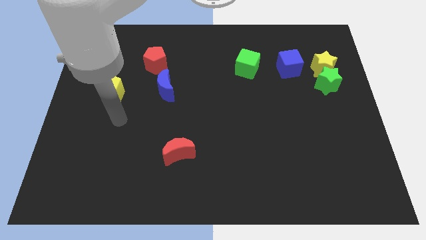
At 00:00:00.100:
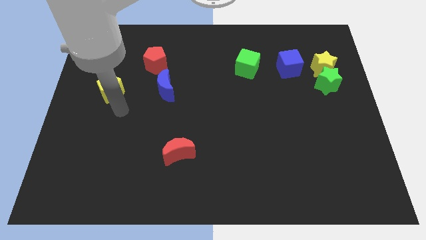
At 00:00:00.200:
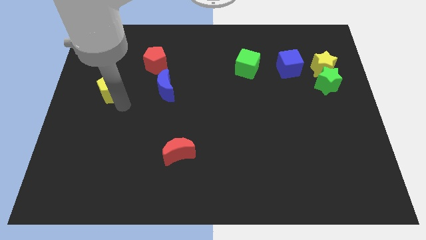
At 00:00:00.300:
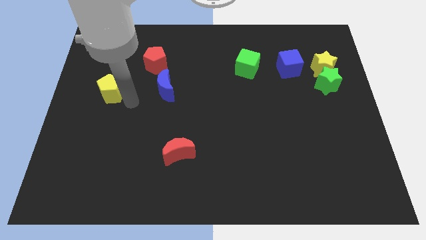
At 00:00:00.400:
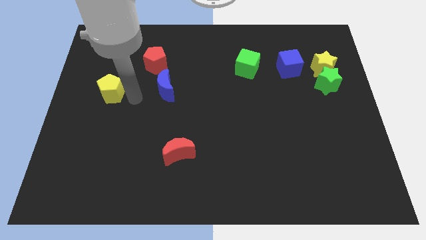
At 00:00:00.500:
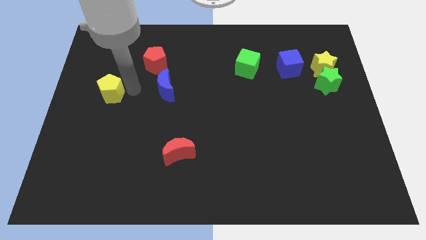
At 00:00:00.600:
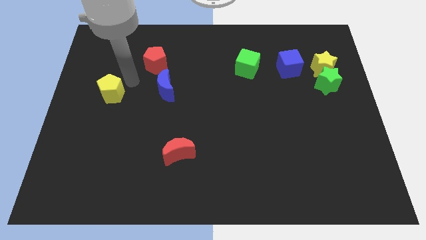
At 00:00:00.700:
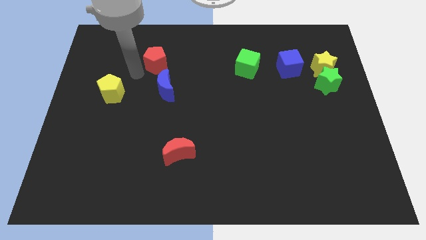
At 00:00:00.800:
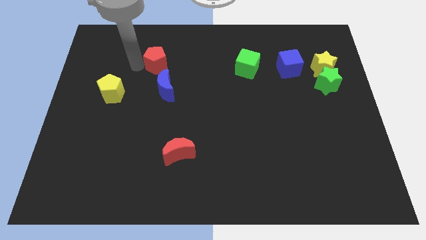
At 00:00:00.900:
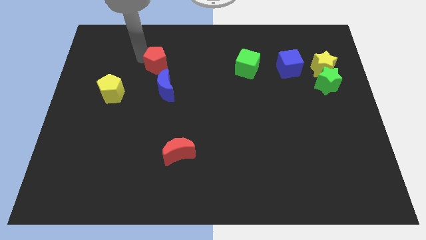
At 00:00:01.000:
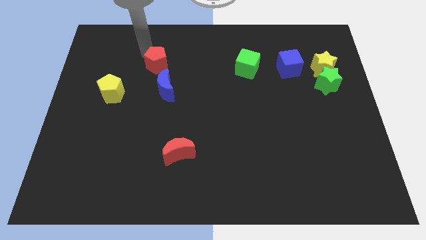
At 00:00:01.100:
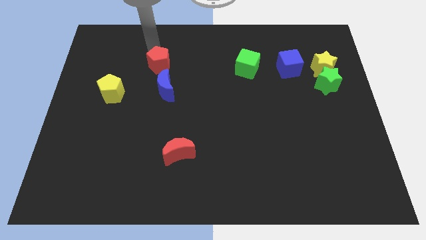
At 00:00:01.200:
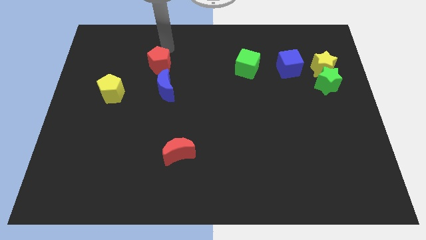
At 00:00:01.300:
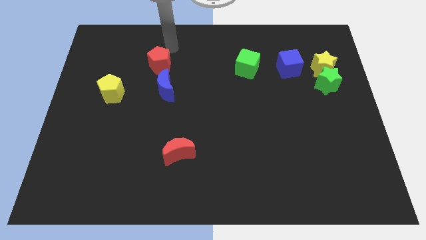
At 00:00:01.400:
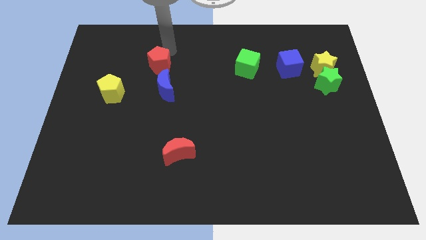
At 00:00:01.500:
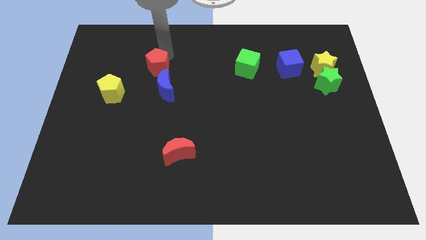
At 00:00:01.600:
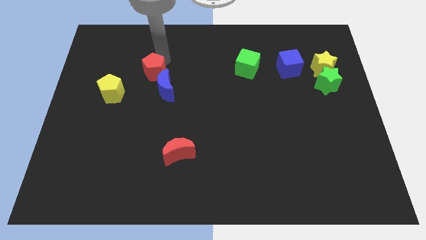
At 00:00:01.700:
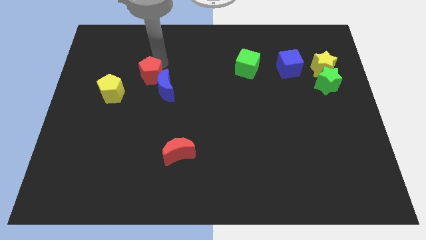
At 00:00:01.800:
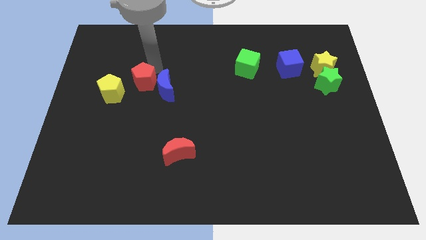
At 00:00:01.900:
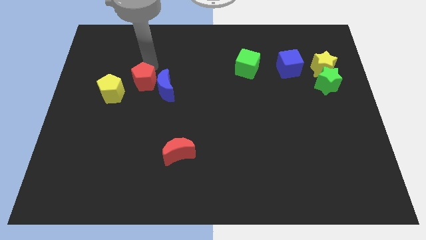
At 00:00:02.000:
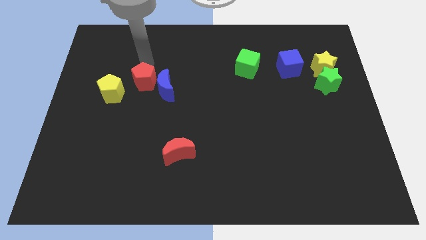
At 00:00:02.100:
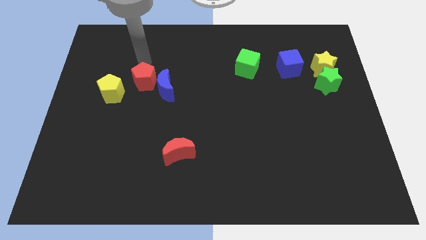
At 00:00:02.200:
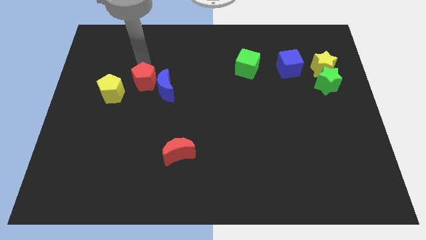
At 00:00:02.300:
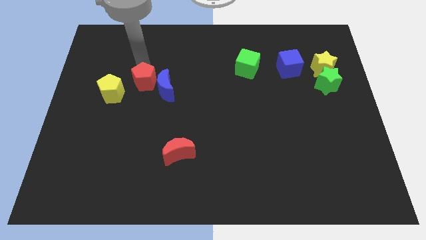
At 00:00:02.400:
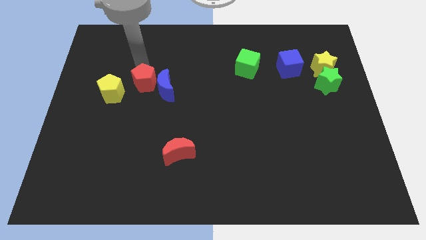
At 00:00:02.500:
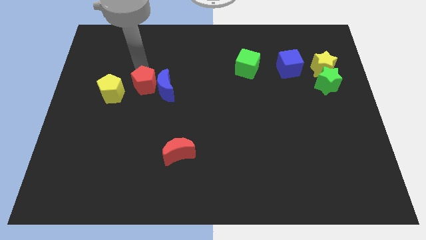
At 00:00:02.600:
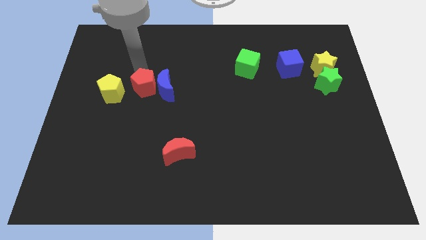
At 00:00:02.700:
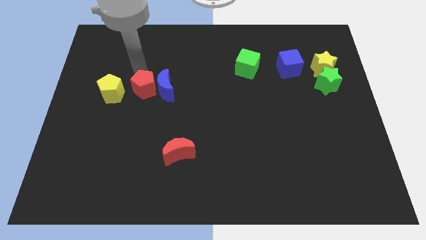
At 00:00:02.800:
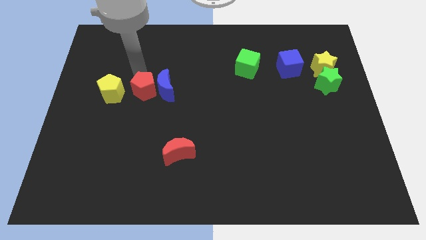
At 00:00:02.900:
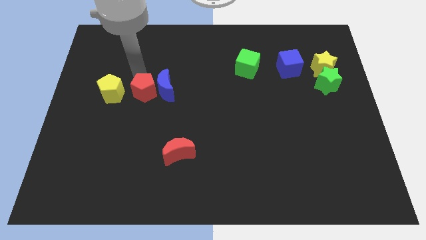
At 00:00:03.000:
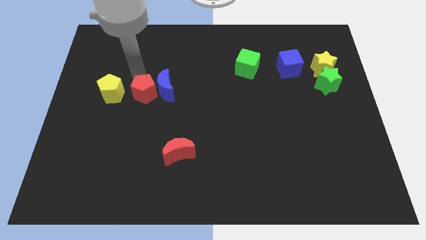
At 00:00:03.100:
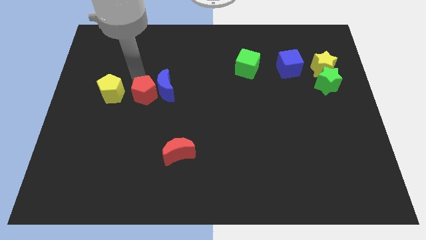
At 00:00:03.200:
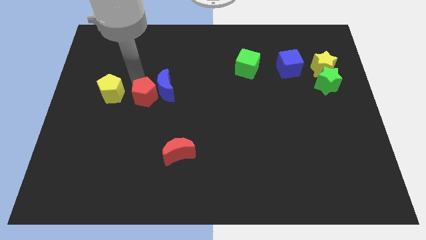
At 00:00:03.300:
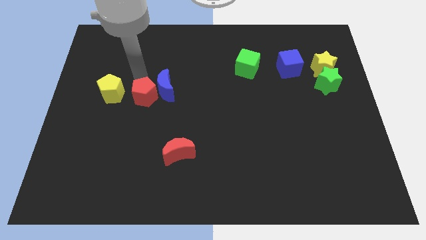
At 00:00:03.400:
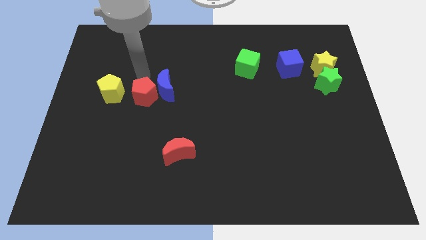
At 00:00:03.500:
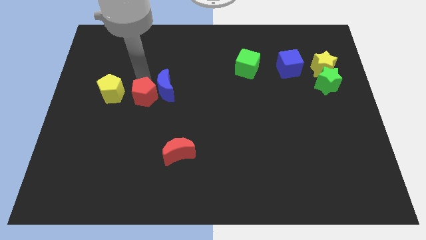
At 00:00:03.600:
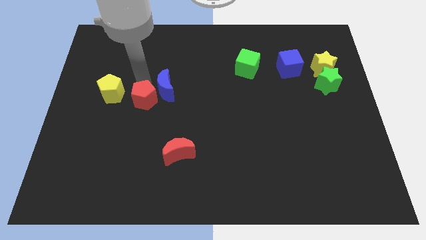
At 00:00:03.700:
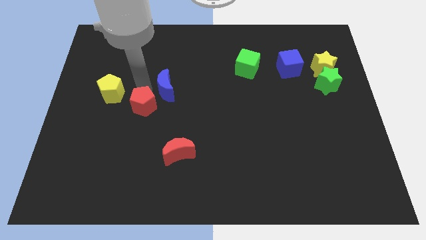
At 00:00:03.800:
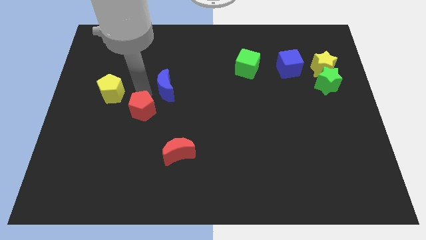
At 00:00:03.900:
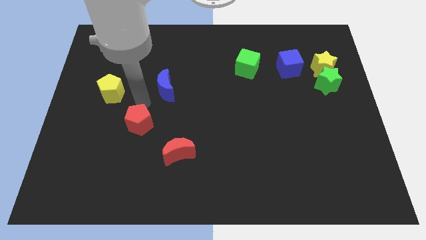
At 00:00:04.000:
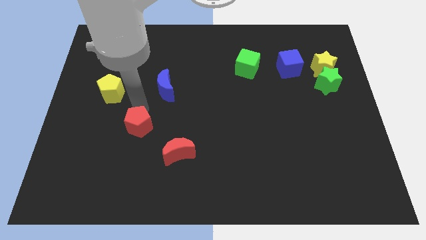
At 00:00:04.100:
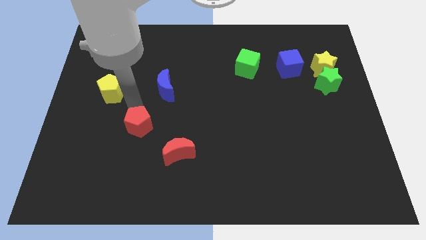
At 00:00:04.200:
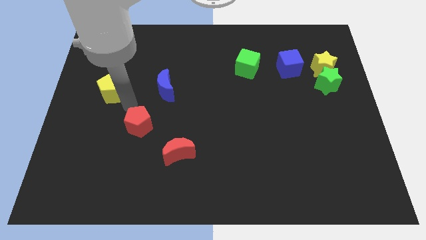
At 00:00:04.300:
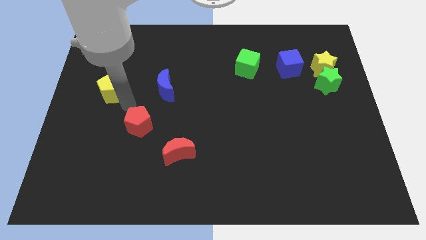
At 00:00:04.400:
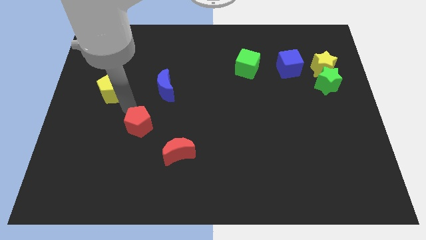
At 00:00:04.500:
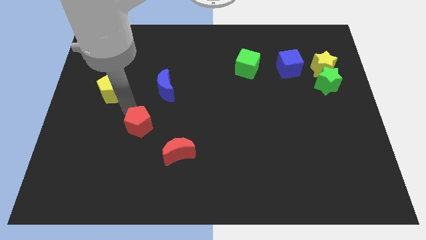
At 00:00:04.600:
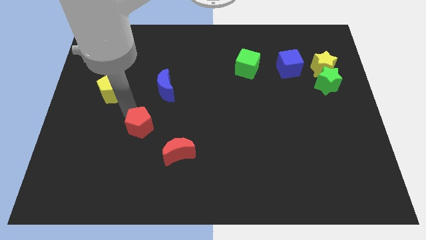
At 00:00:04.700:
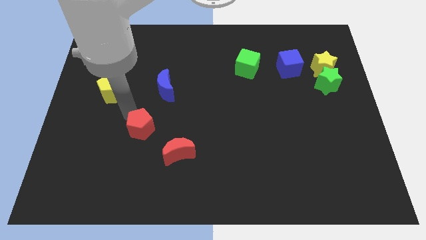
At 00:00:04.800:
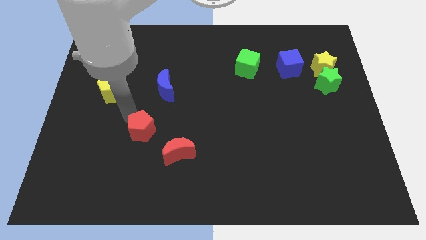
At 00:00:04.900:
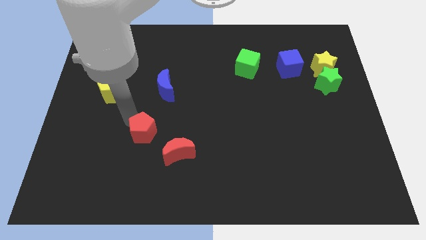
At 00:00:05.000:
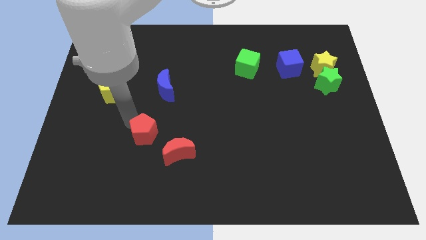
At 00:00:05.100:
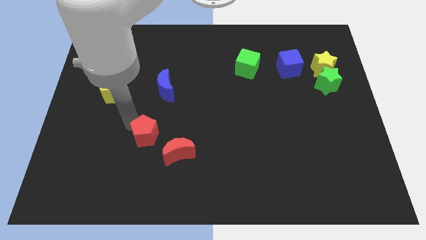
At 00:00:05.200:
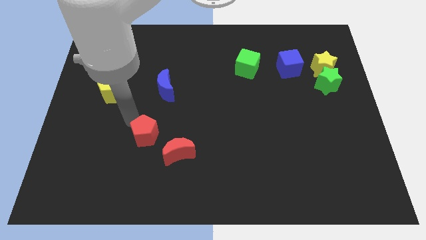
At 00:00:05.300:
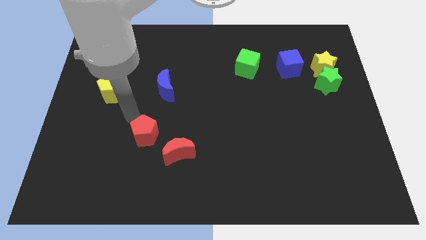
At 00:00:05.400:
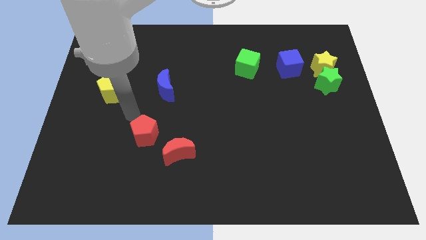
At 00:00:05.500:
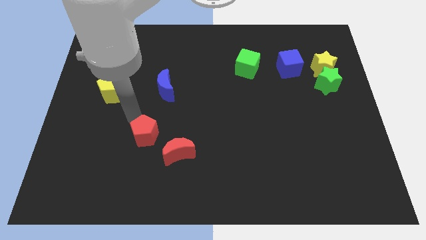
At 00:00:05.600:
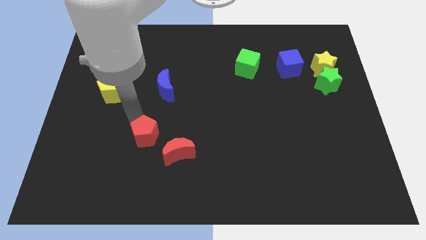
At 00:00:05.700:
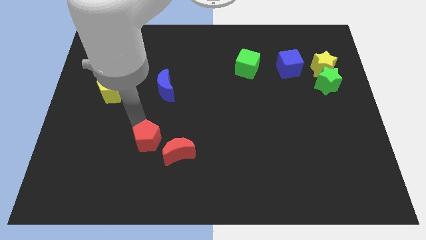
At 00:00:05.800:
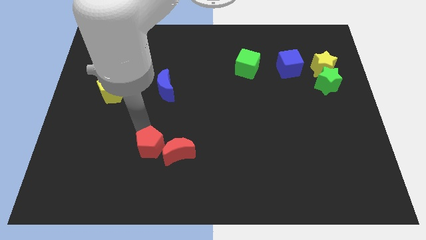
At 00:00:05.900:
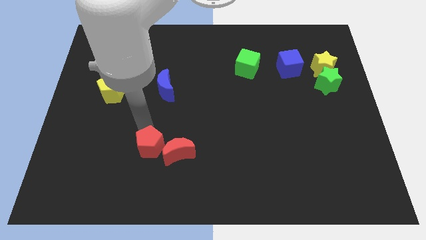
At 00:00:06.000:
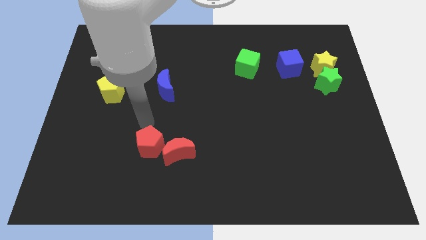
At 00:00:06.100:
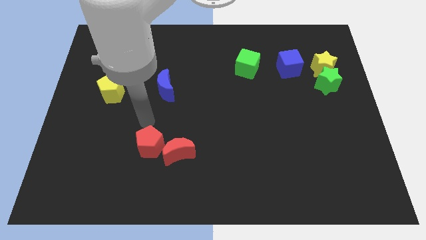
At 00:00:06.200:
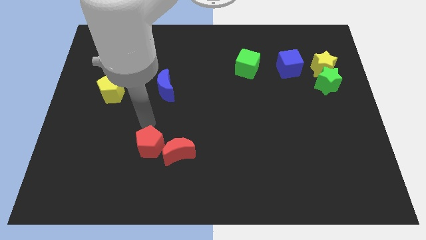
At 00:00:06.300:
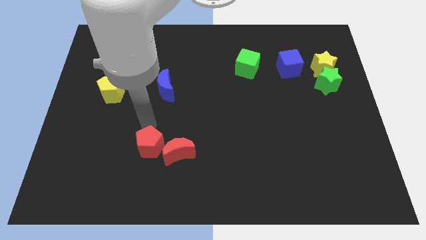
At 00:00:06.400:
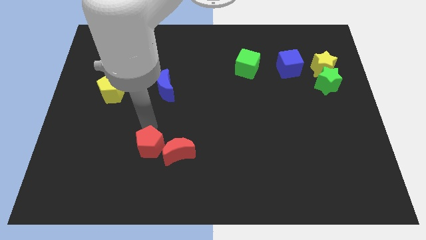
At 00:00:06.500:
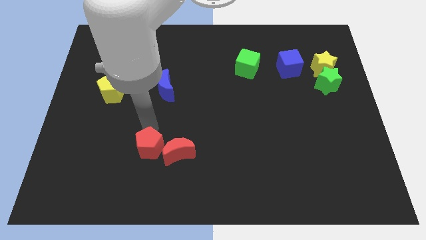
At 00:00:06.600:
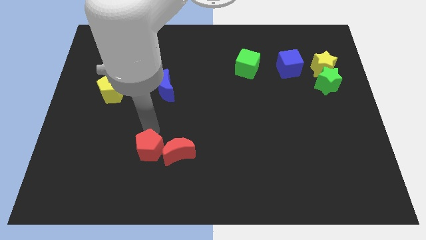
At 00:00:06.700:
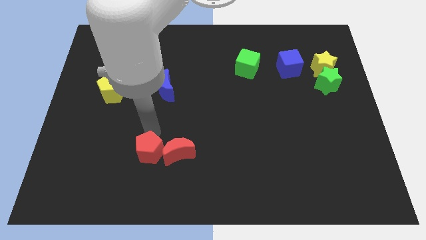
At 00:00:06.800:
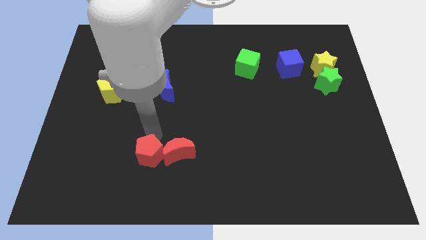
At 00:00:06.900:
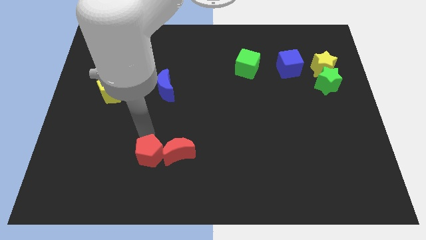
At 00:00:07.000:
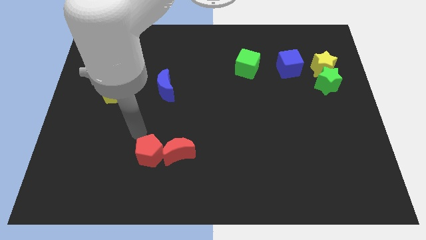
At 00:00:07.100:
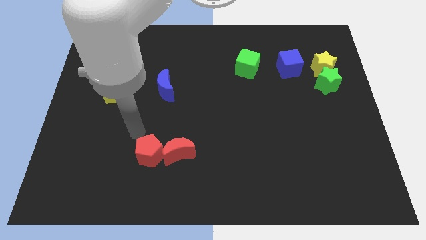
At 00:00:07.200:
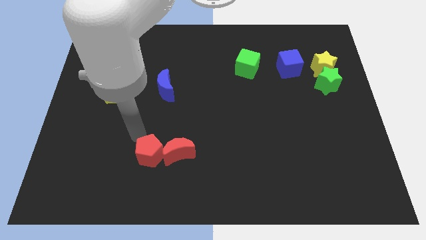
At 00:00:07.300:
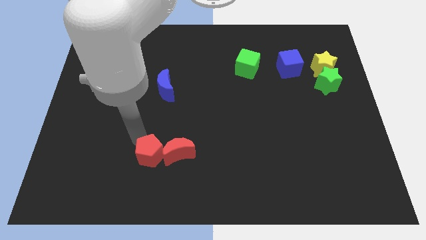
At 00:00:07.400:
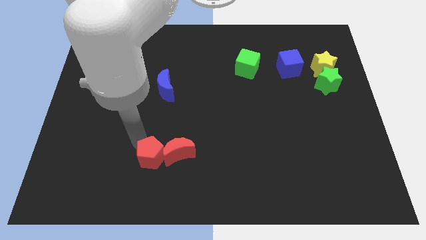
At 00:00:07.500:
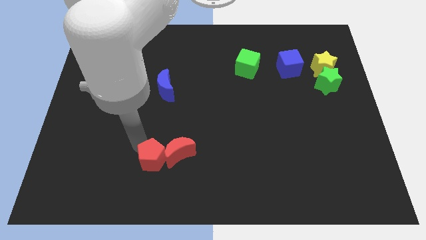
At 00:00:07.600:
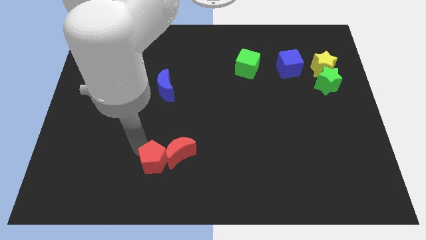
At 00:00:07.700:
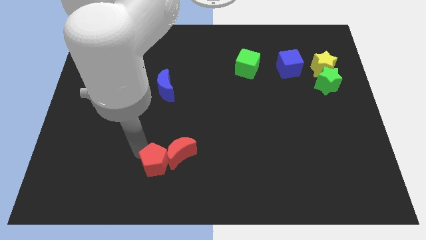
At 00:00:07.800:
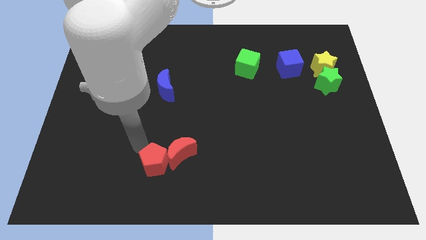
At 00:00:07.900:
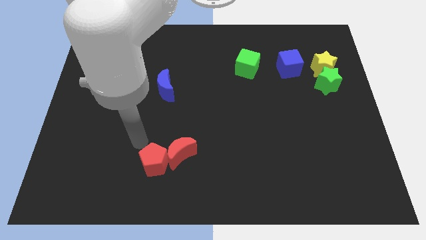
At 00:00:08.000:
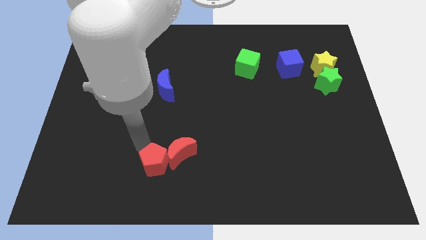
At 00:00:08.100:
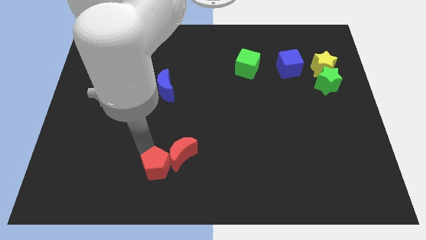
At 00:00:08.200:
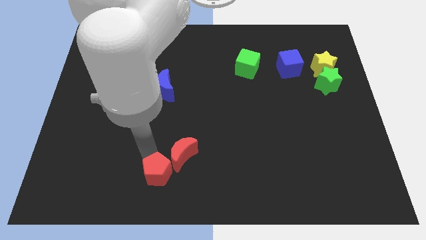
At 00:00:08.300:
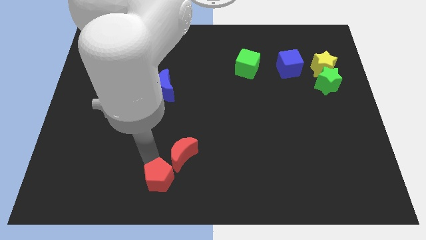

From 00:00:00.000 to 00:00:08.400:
slide the red pentagon to the bottom side
